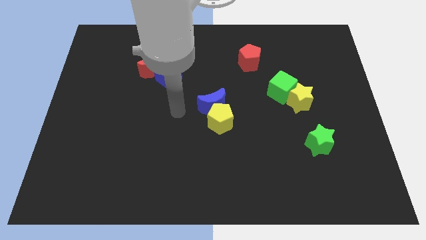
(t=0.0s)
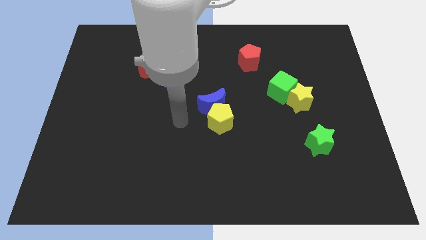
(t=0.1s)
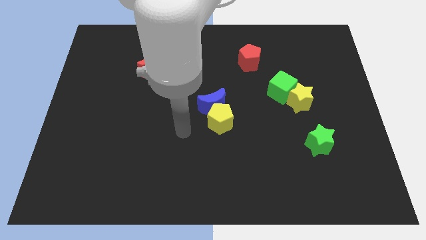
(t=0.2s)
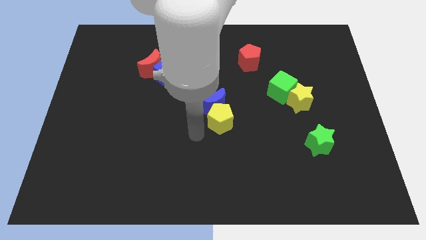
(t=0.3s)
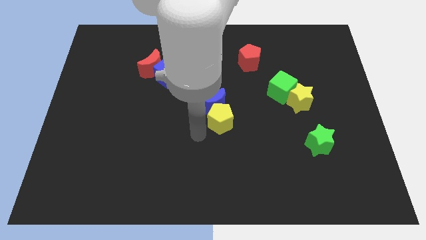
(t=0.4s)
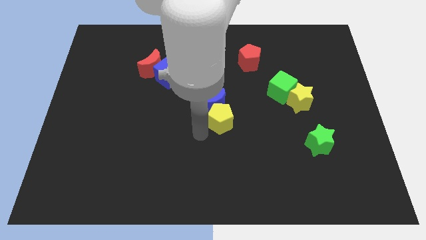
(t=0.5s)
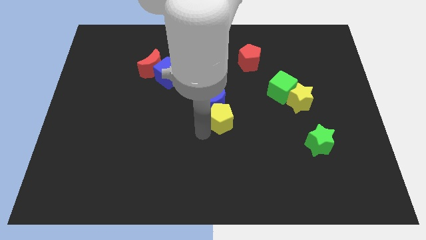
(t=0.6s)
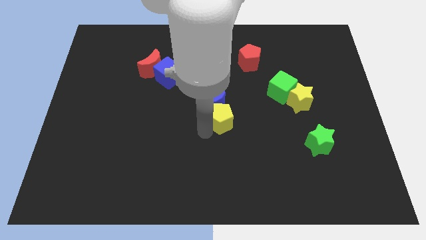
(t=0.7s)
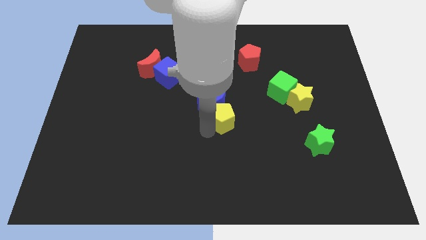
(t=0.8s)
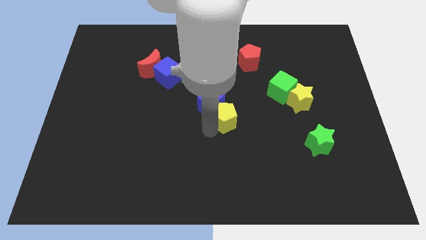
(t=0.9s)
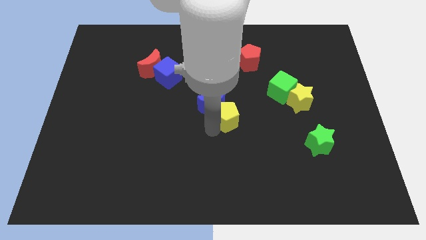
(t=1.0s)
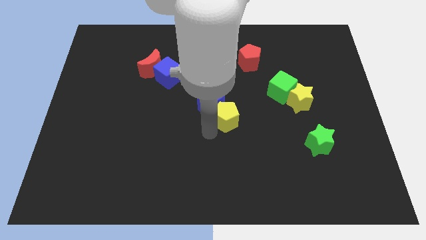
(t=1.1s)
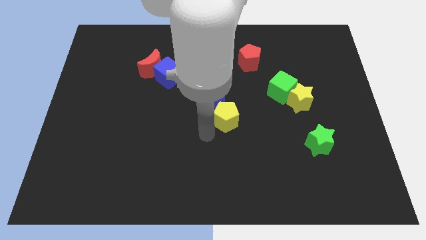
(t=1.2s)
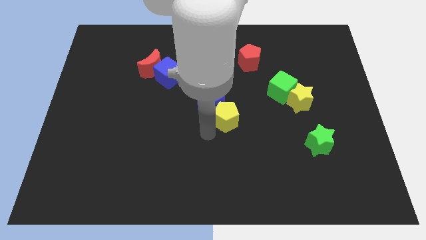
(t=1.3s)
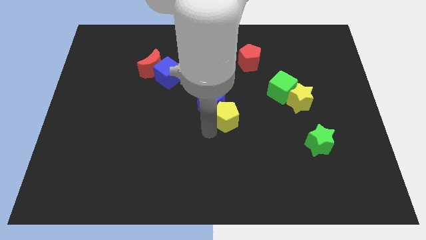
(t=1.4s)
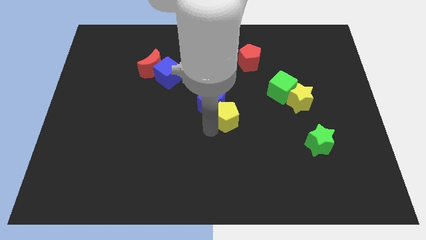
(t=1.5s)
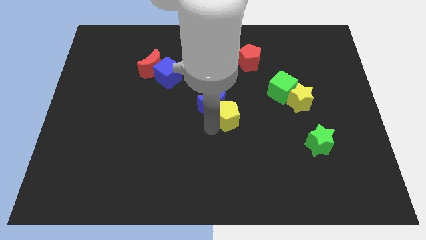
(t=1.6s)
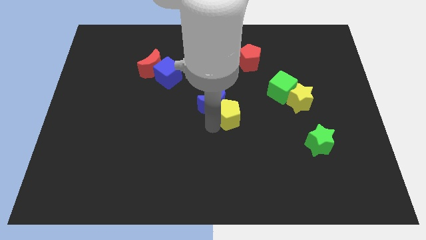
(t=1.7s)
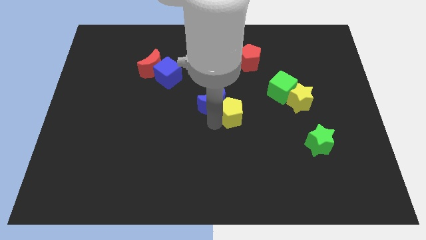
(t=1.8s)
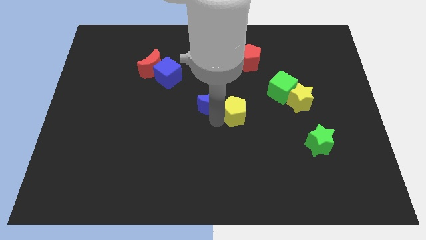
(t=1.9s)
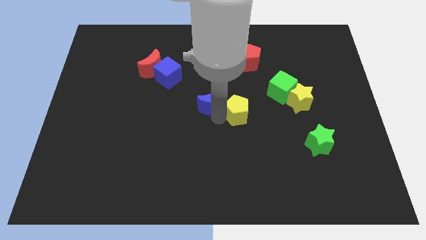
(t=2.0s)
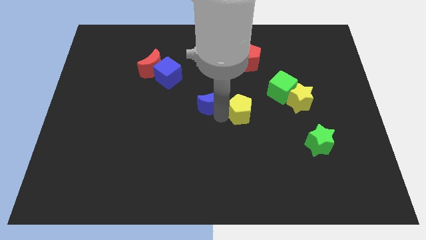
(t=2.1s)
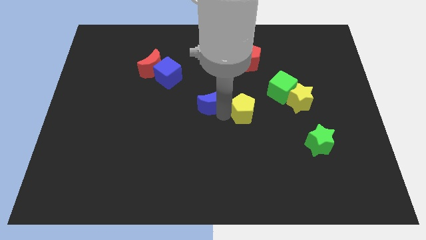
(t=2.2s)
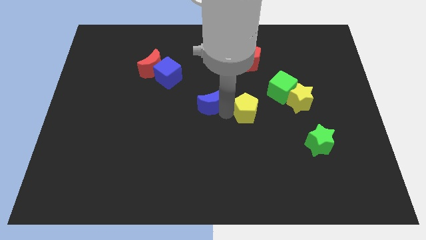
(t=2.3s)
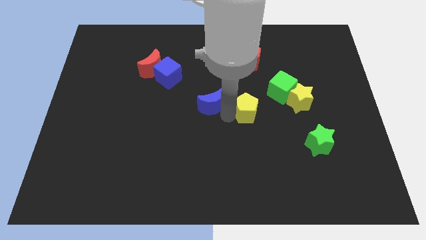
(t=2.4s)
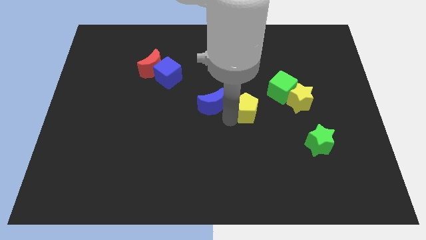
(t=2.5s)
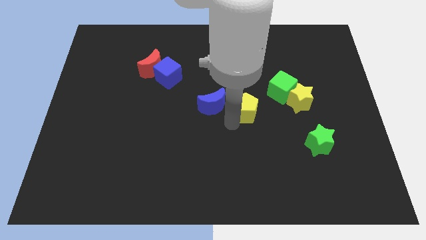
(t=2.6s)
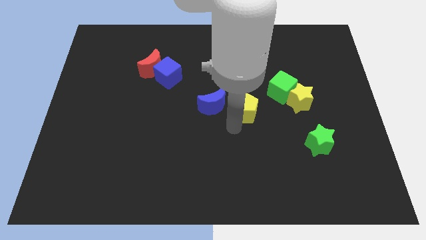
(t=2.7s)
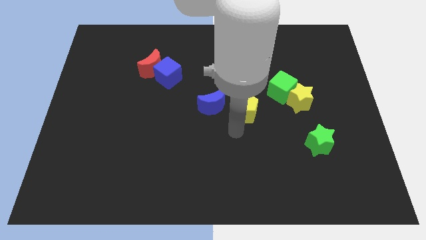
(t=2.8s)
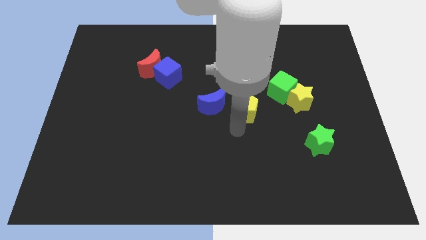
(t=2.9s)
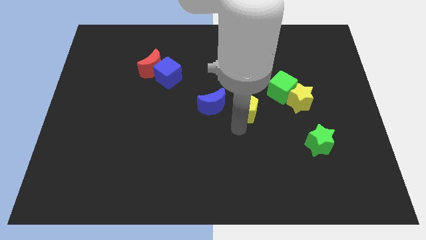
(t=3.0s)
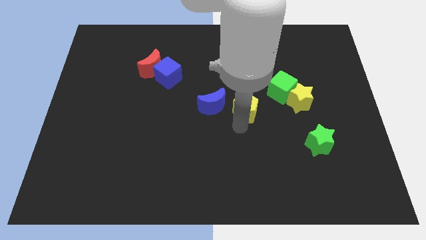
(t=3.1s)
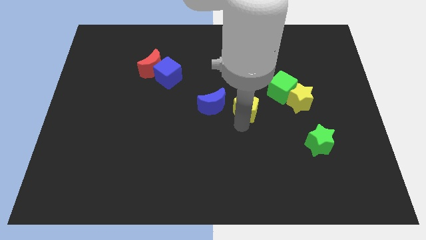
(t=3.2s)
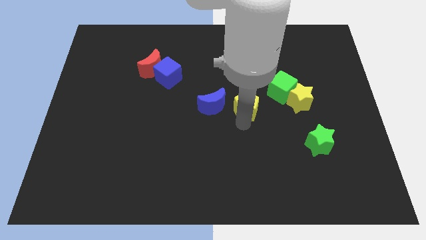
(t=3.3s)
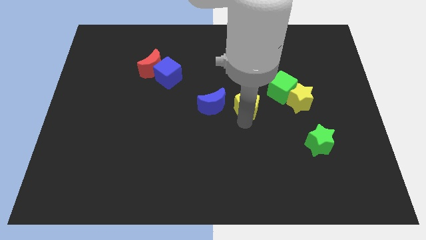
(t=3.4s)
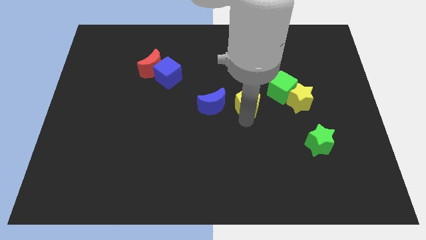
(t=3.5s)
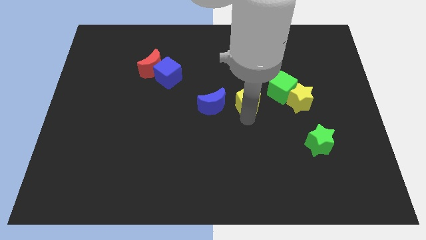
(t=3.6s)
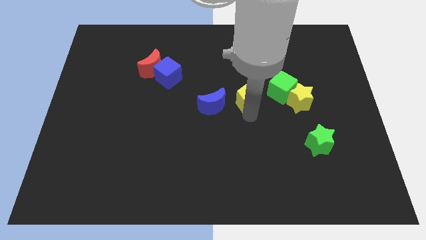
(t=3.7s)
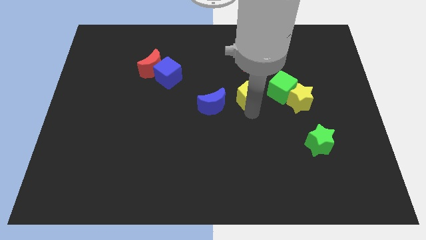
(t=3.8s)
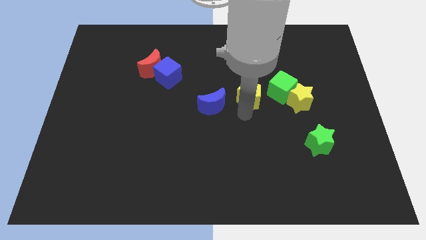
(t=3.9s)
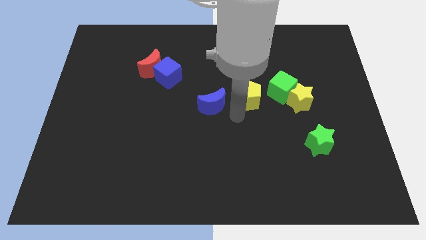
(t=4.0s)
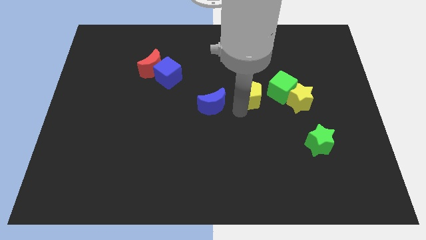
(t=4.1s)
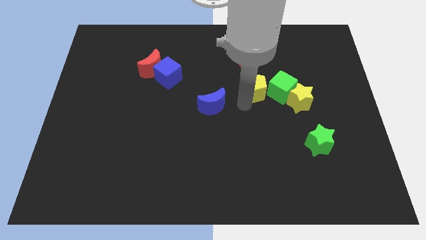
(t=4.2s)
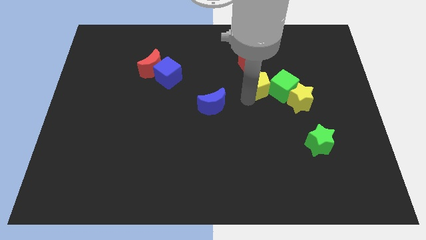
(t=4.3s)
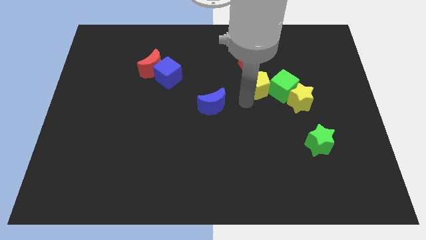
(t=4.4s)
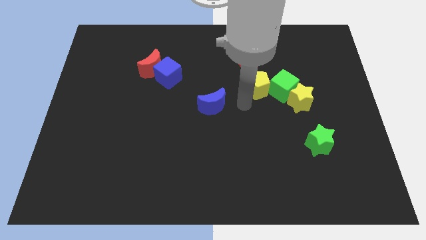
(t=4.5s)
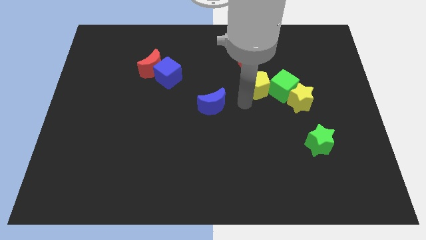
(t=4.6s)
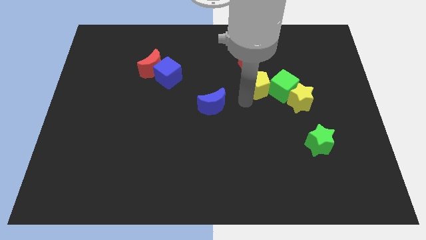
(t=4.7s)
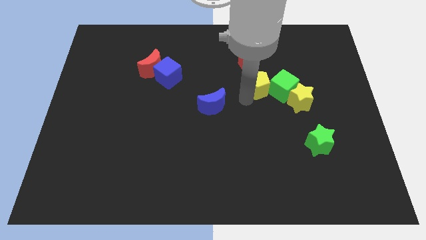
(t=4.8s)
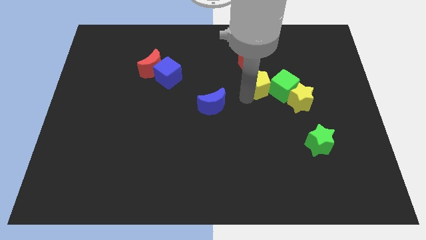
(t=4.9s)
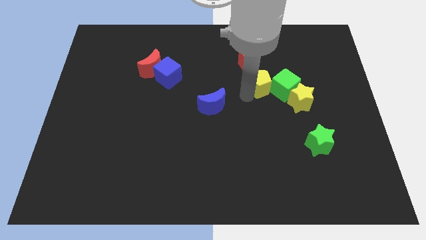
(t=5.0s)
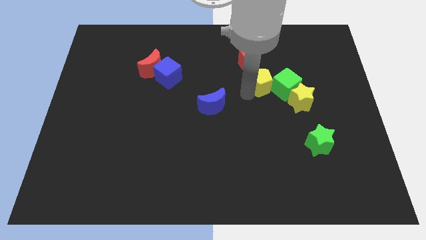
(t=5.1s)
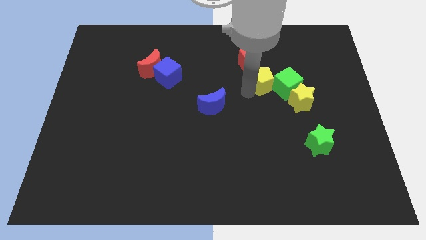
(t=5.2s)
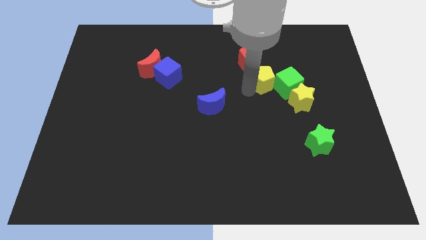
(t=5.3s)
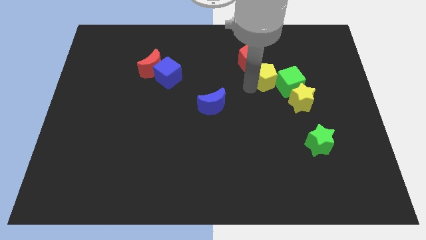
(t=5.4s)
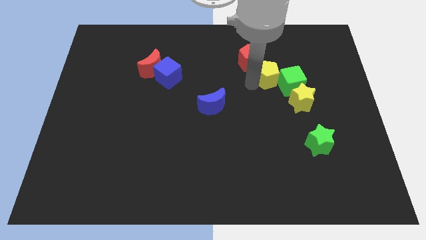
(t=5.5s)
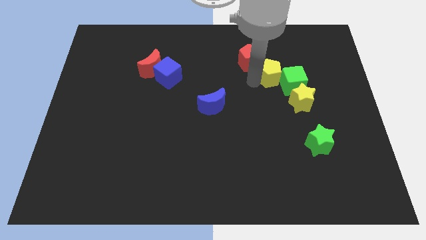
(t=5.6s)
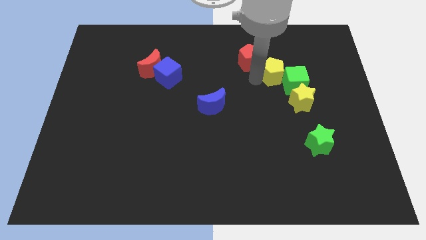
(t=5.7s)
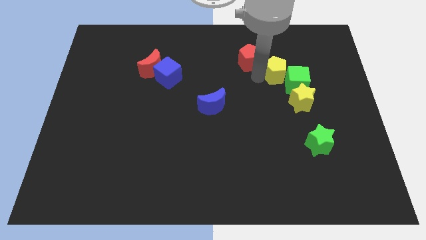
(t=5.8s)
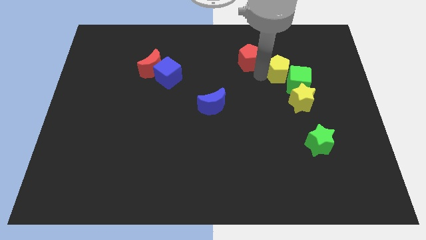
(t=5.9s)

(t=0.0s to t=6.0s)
slide the yellow pentagon to the top of the green cube

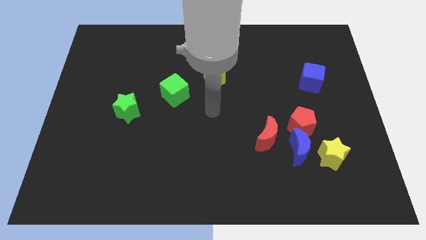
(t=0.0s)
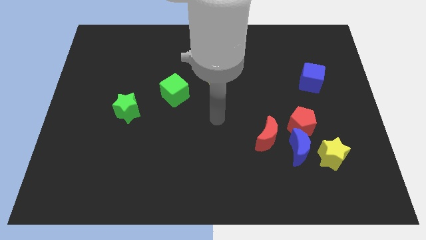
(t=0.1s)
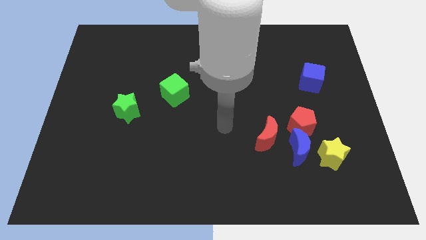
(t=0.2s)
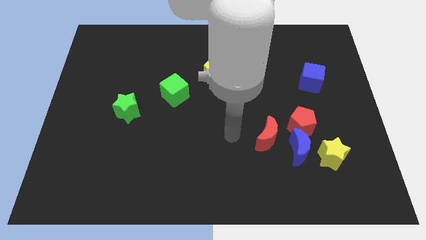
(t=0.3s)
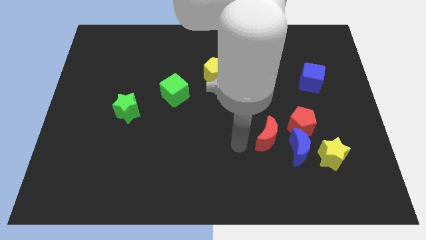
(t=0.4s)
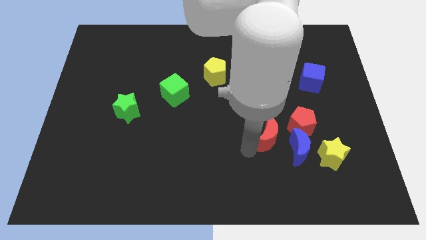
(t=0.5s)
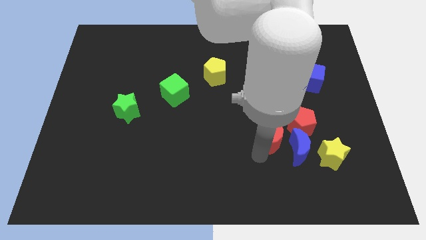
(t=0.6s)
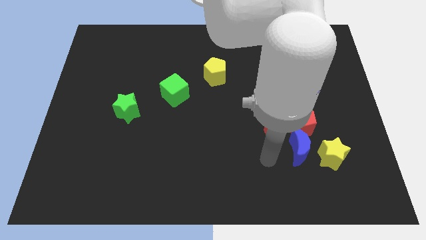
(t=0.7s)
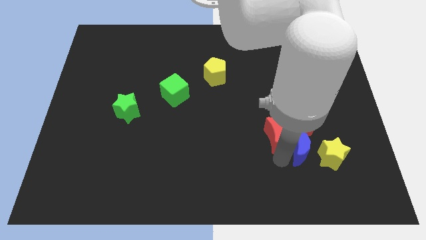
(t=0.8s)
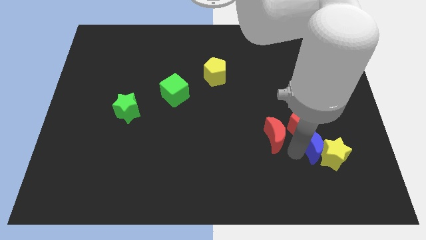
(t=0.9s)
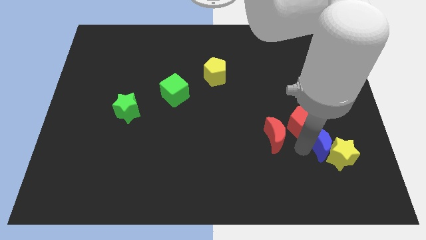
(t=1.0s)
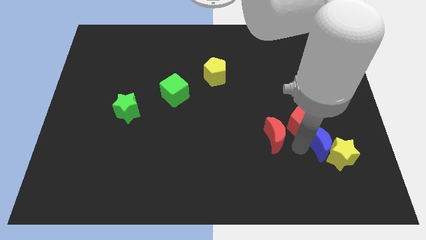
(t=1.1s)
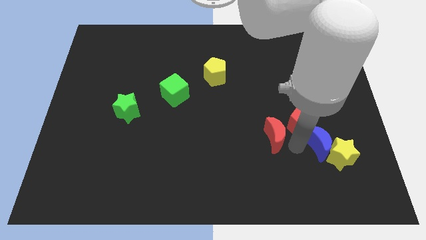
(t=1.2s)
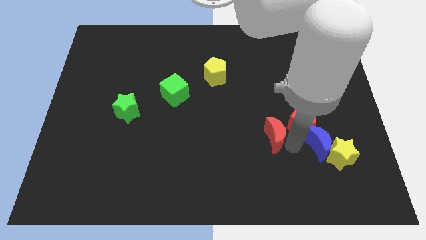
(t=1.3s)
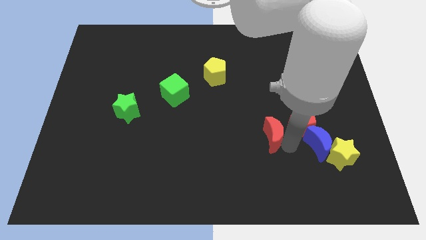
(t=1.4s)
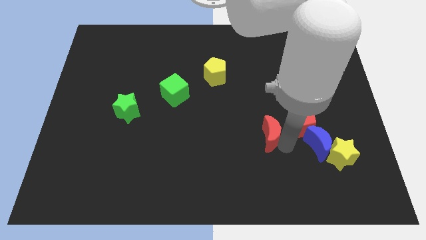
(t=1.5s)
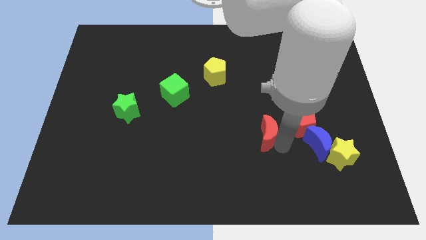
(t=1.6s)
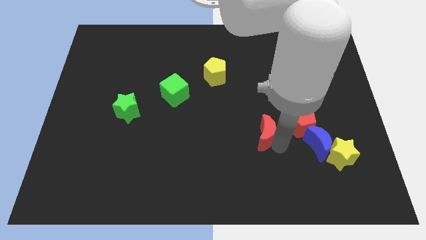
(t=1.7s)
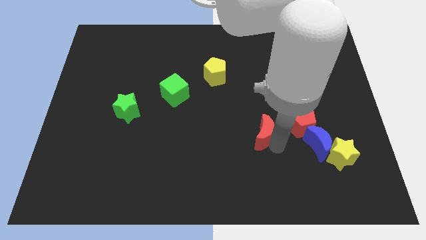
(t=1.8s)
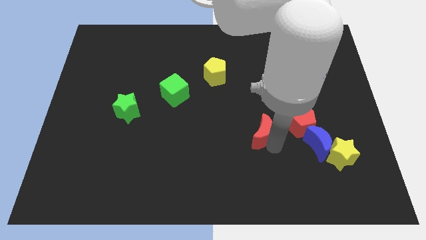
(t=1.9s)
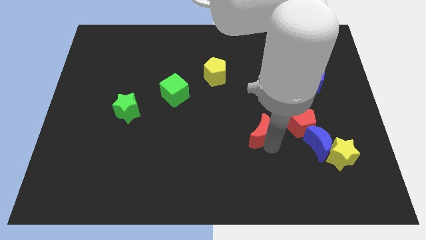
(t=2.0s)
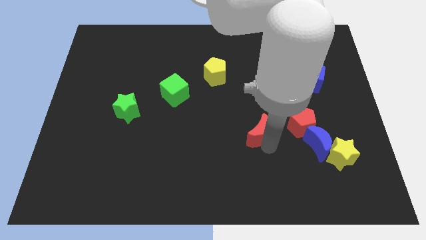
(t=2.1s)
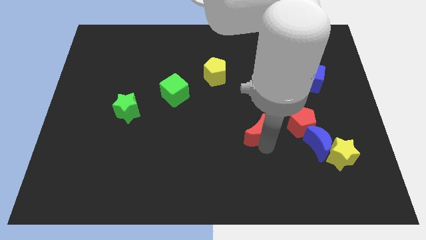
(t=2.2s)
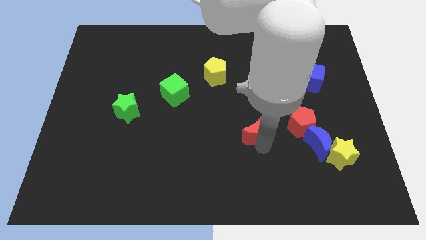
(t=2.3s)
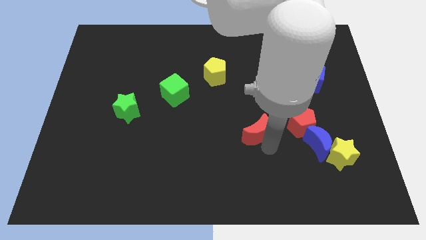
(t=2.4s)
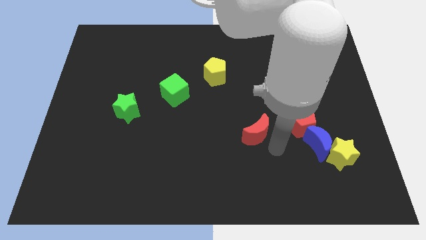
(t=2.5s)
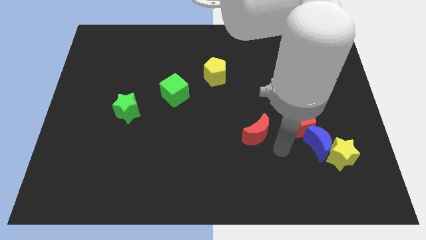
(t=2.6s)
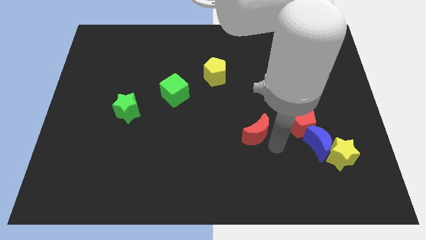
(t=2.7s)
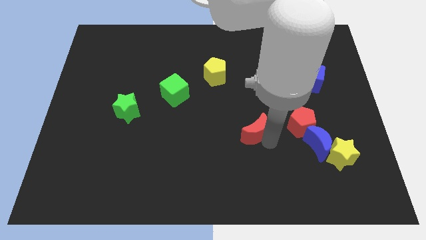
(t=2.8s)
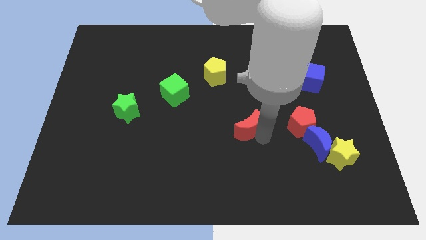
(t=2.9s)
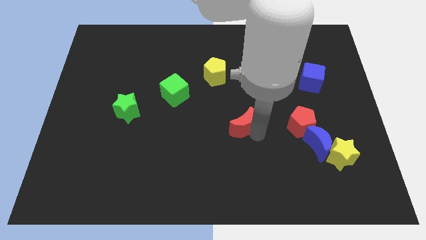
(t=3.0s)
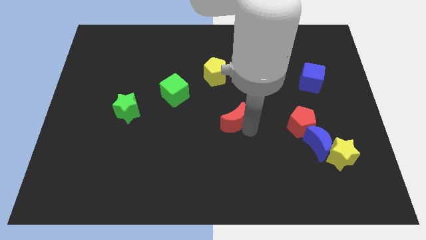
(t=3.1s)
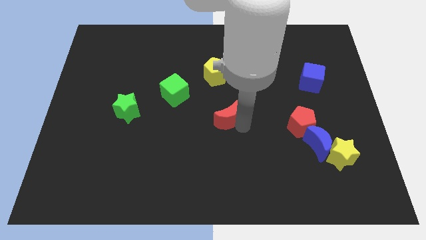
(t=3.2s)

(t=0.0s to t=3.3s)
push the red moon to the bottom of the yellow pentagon
